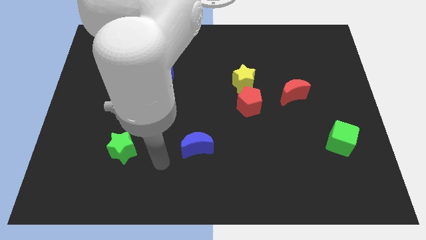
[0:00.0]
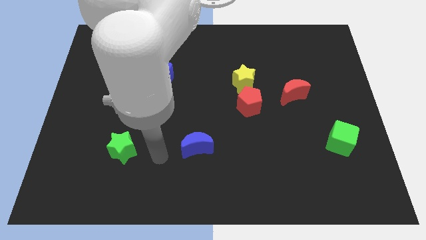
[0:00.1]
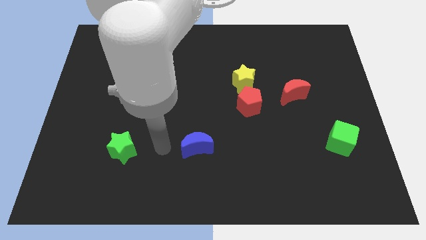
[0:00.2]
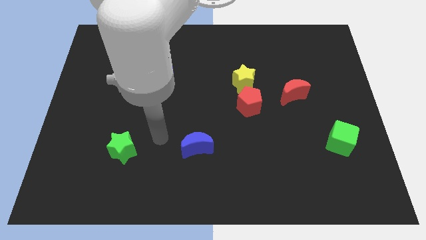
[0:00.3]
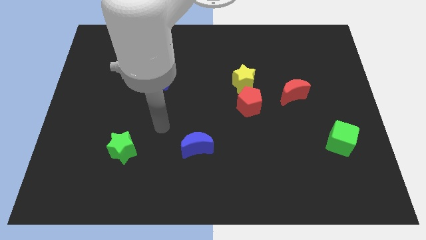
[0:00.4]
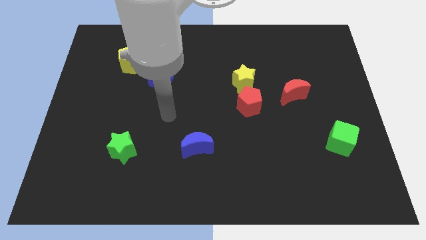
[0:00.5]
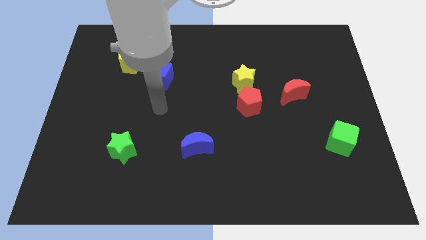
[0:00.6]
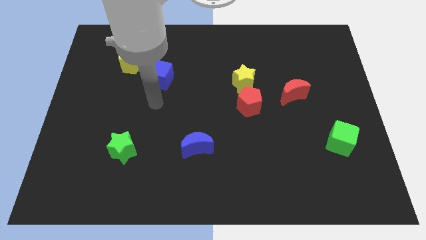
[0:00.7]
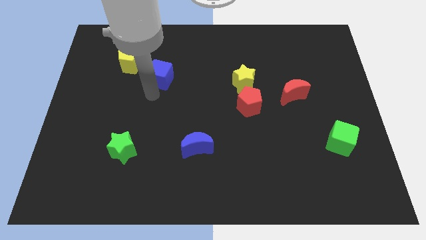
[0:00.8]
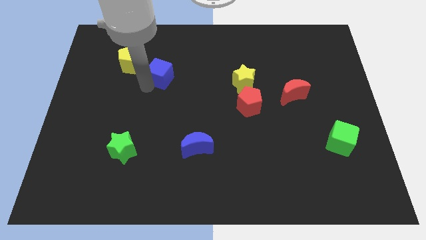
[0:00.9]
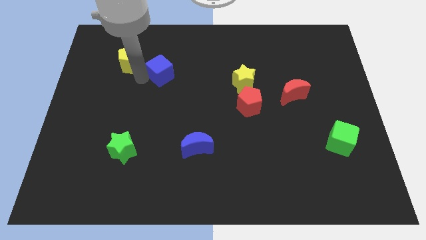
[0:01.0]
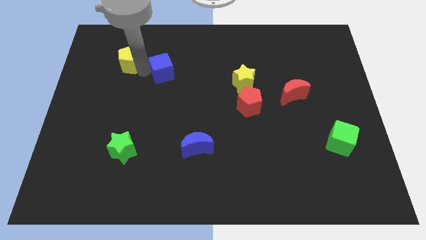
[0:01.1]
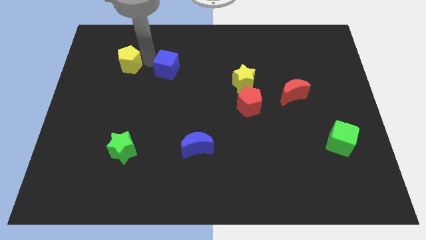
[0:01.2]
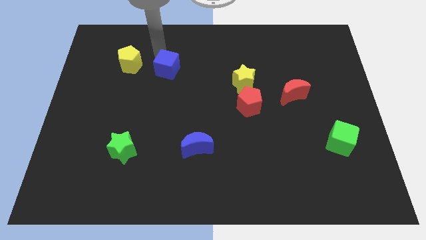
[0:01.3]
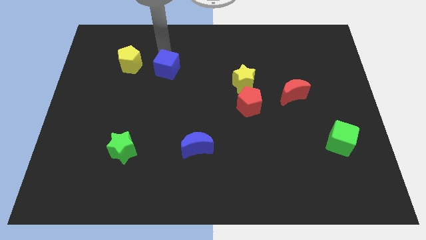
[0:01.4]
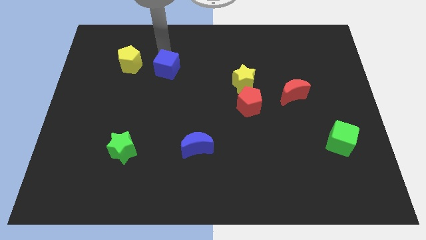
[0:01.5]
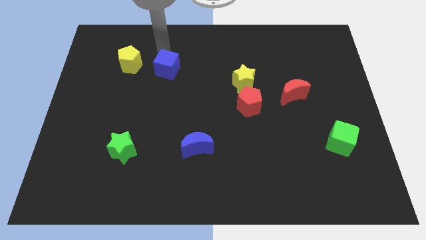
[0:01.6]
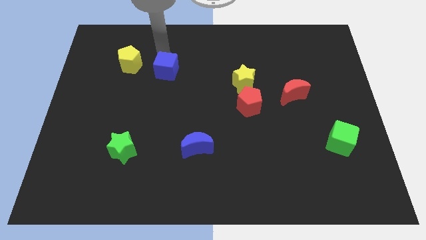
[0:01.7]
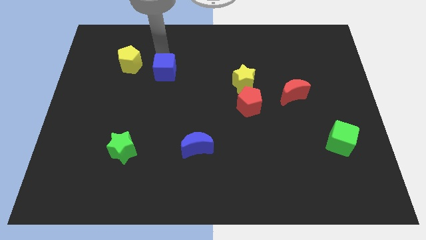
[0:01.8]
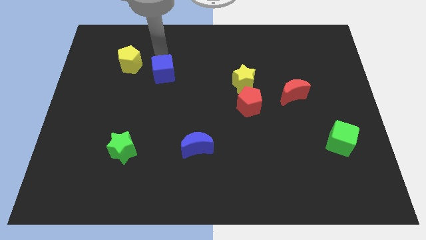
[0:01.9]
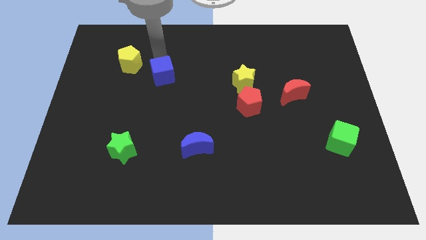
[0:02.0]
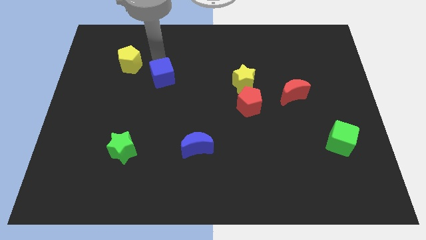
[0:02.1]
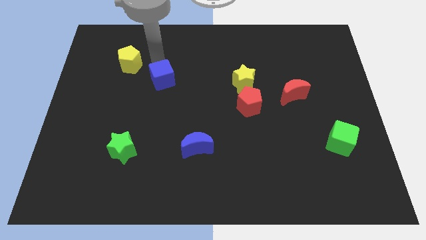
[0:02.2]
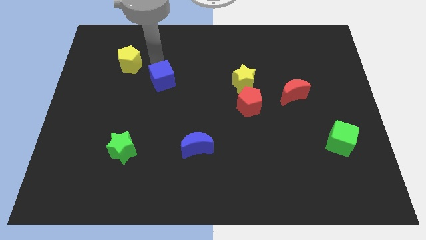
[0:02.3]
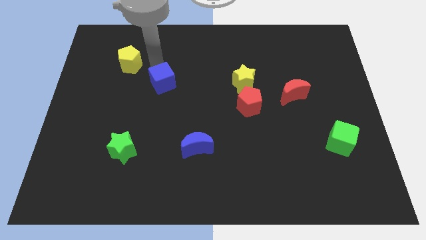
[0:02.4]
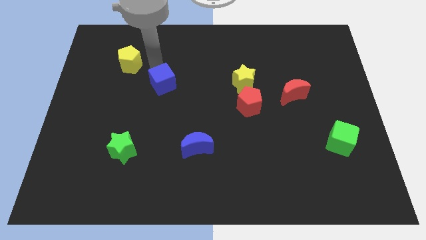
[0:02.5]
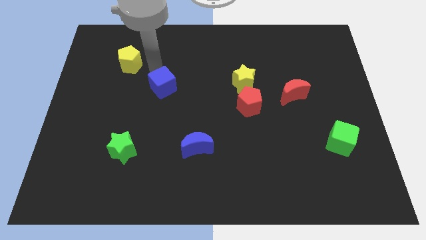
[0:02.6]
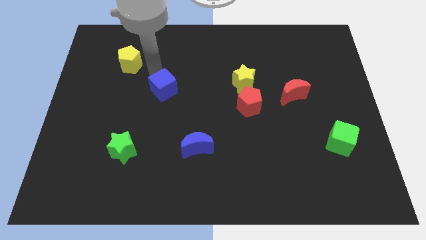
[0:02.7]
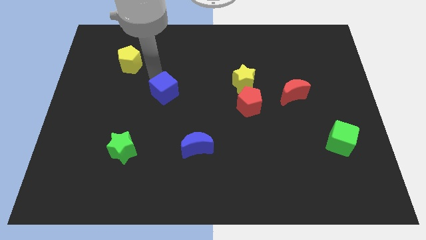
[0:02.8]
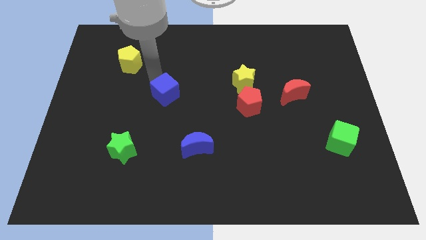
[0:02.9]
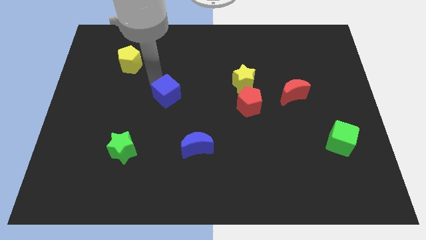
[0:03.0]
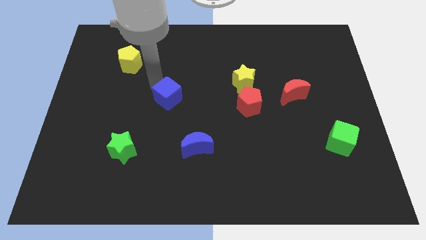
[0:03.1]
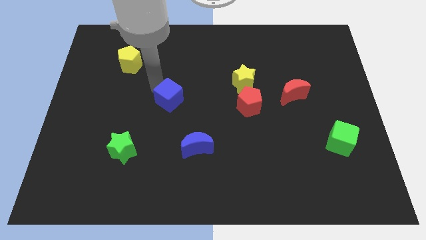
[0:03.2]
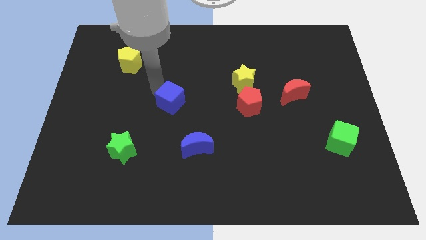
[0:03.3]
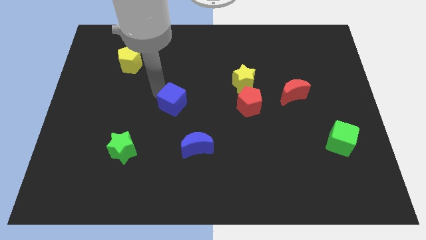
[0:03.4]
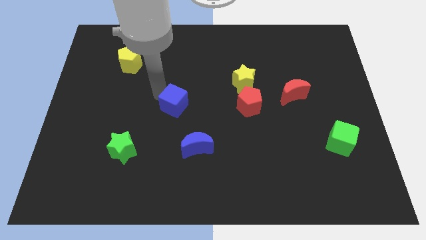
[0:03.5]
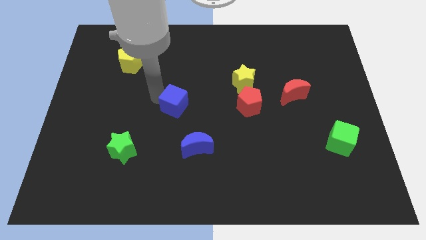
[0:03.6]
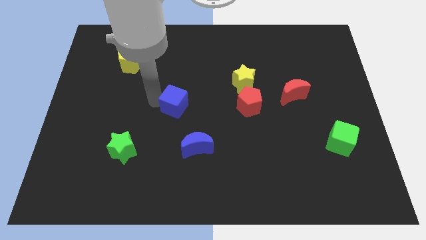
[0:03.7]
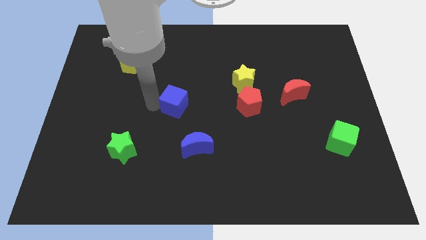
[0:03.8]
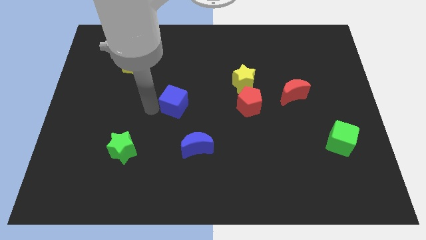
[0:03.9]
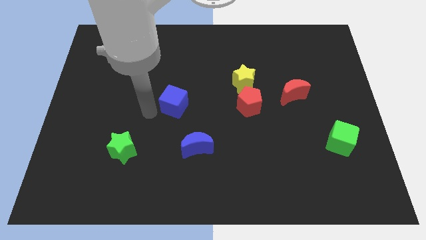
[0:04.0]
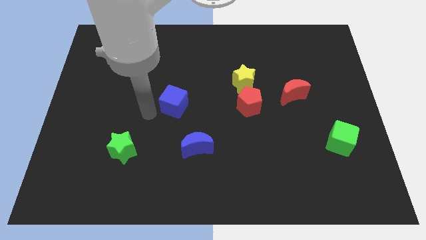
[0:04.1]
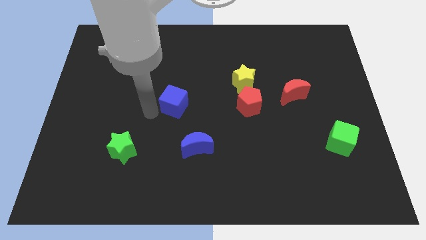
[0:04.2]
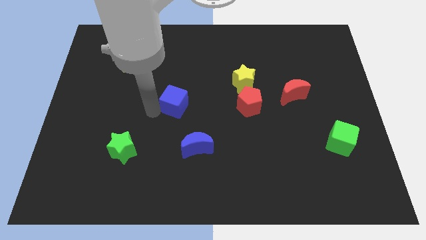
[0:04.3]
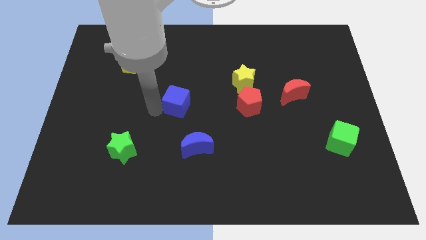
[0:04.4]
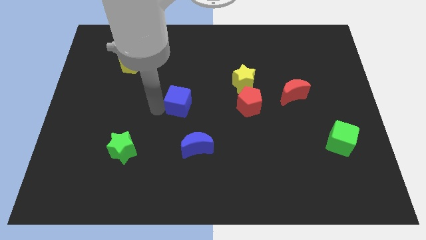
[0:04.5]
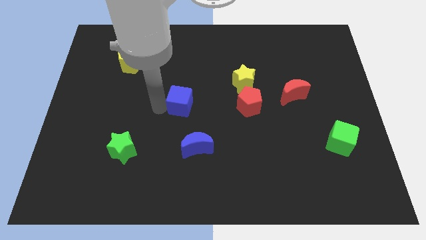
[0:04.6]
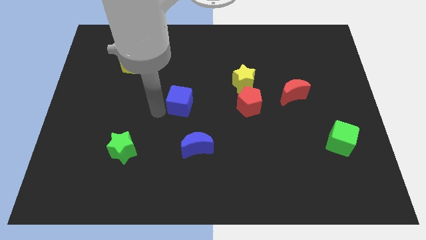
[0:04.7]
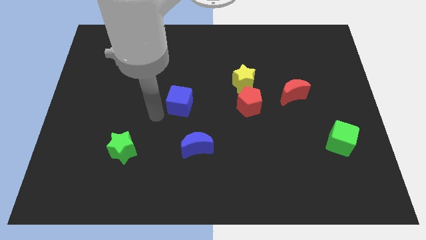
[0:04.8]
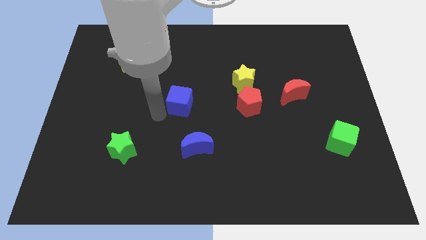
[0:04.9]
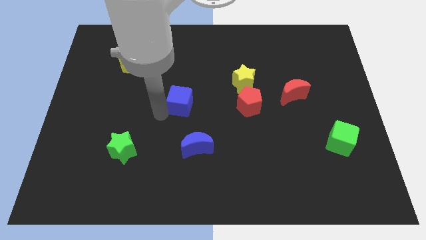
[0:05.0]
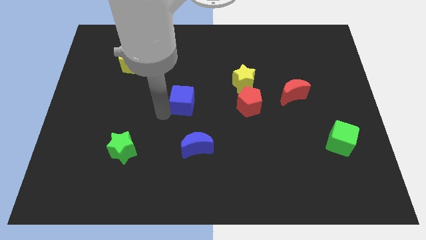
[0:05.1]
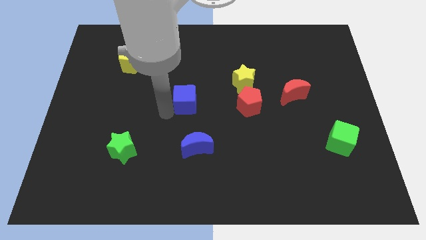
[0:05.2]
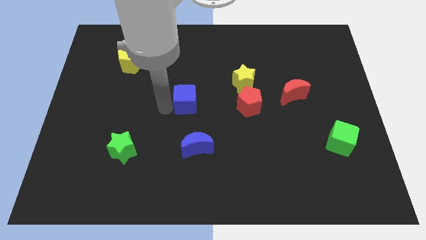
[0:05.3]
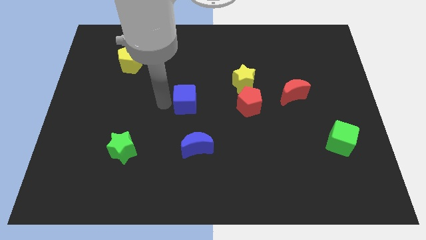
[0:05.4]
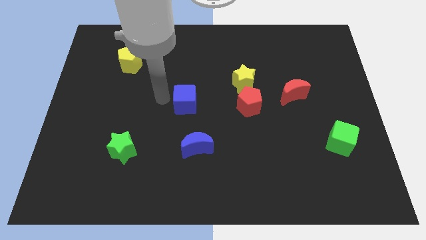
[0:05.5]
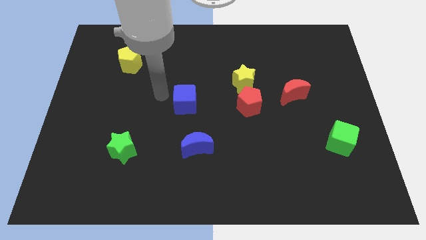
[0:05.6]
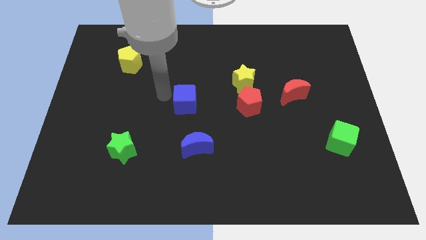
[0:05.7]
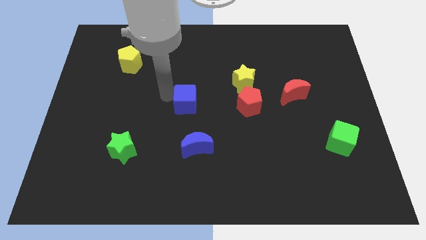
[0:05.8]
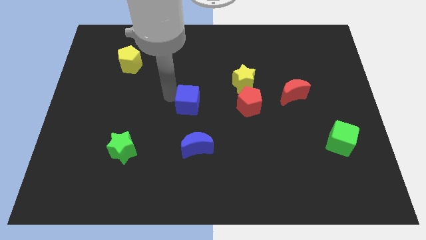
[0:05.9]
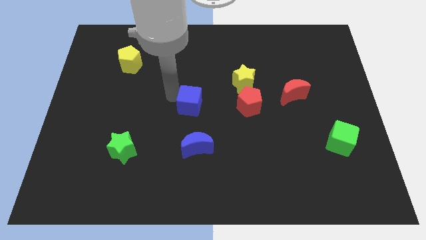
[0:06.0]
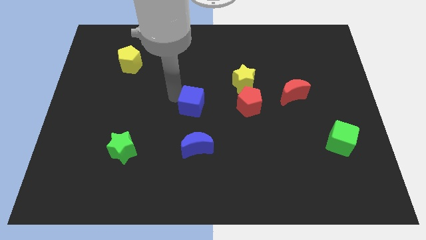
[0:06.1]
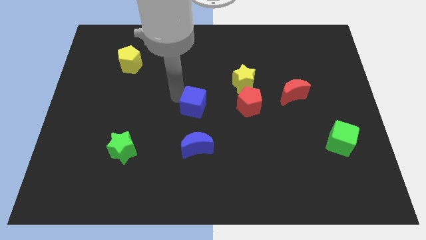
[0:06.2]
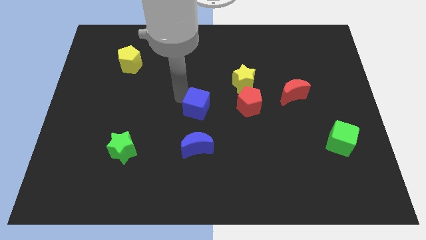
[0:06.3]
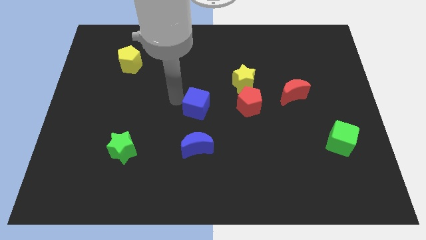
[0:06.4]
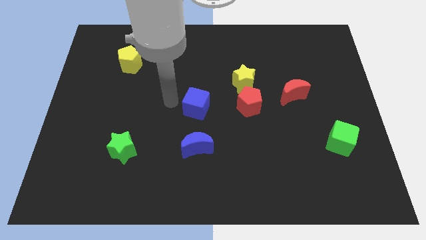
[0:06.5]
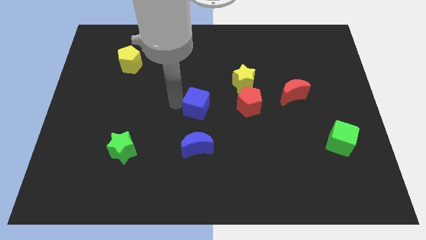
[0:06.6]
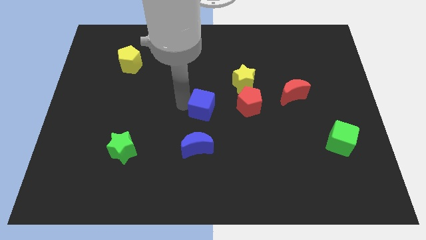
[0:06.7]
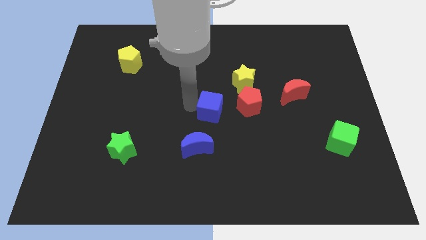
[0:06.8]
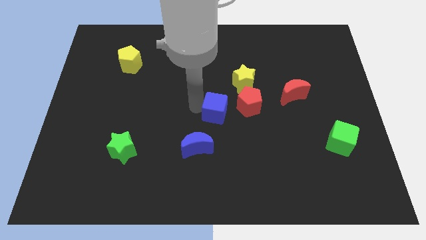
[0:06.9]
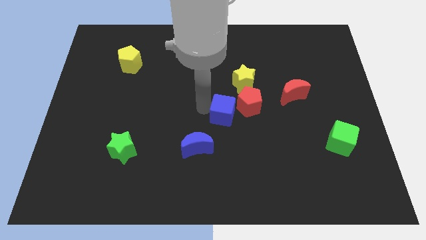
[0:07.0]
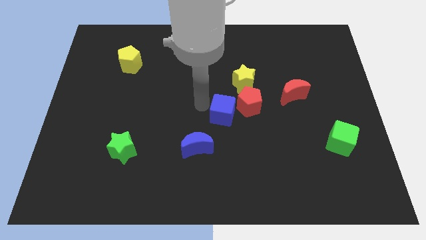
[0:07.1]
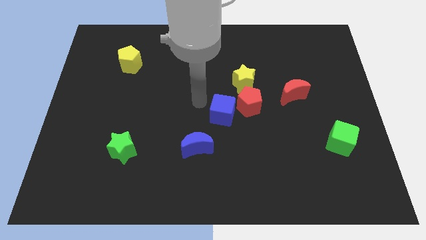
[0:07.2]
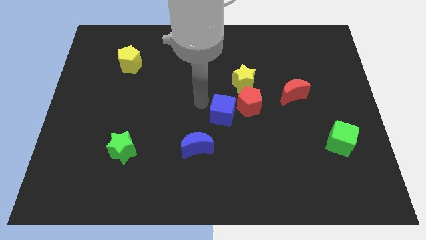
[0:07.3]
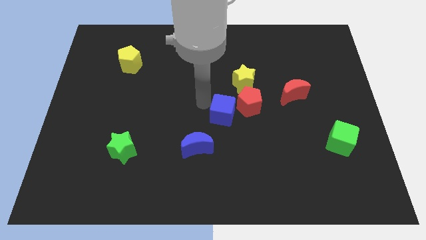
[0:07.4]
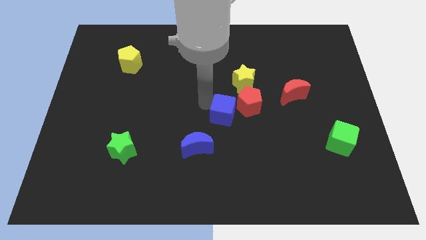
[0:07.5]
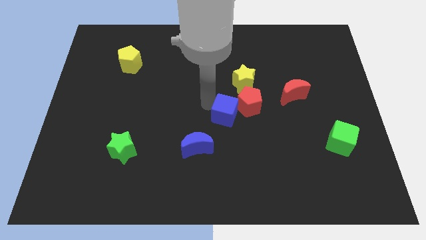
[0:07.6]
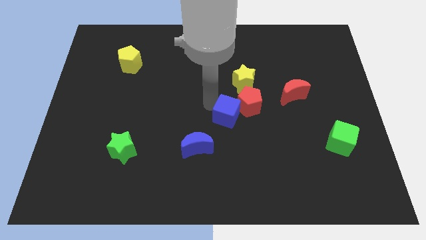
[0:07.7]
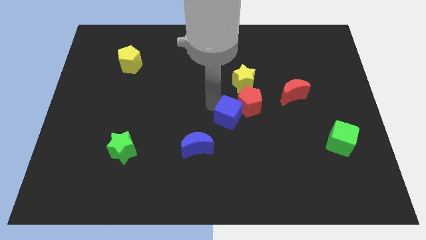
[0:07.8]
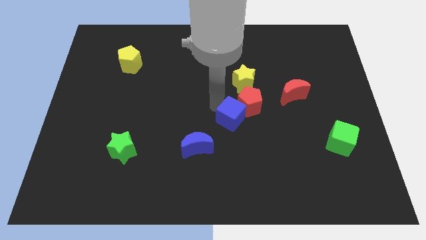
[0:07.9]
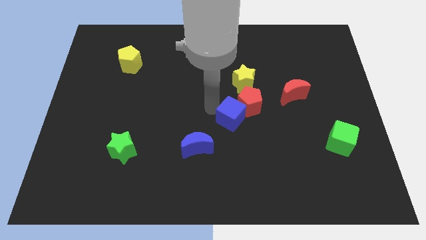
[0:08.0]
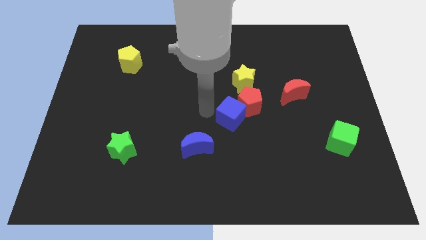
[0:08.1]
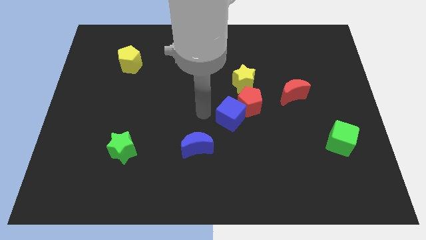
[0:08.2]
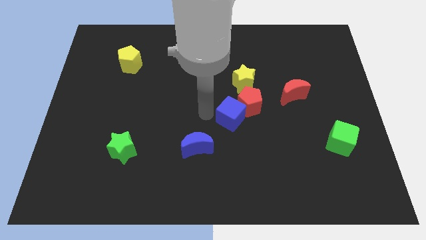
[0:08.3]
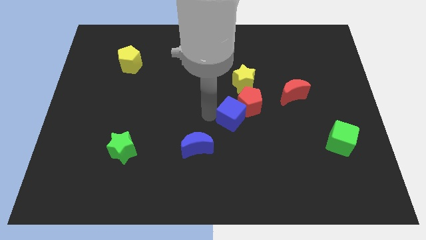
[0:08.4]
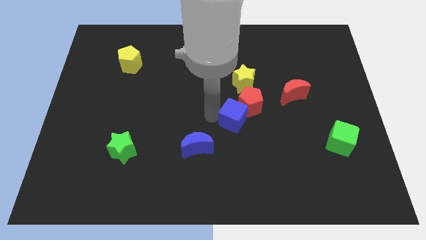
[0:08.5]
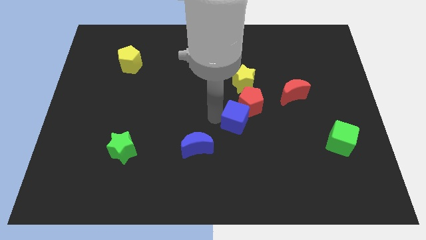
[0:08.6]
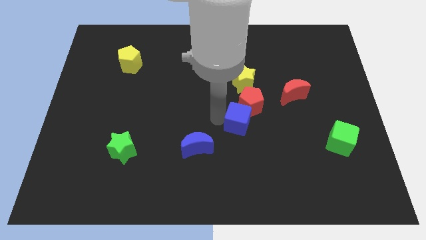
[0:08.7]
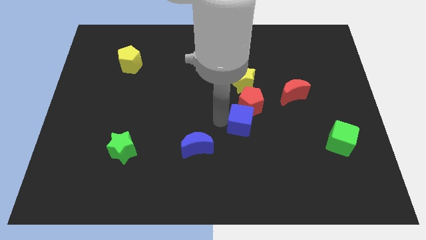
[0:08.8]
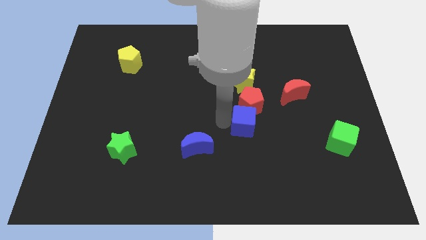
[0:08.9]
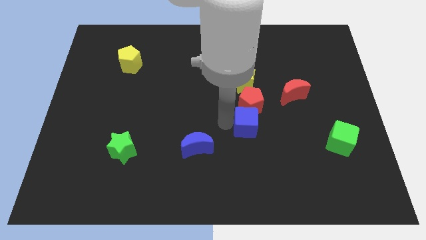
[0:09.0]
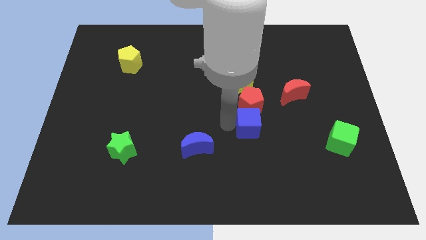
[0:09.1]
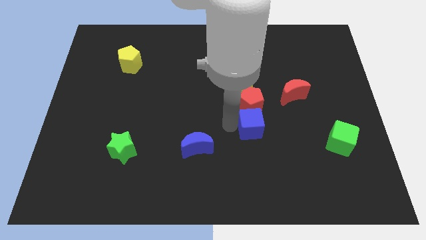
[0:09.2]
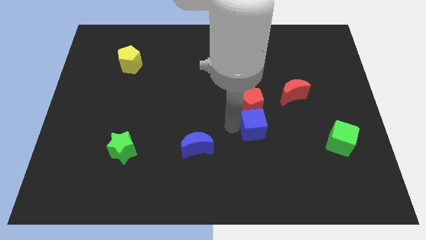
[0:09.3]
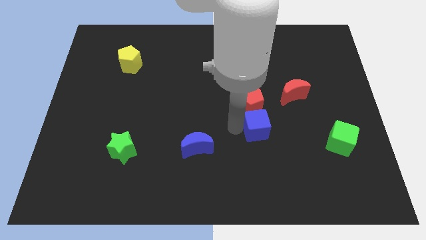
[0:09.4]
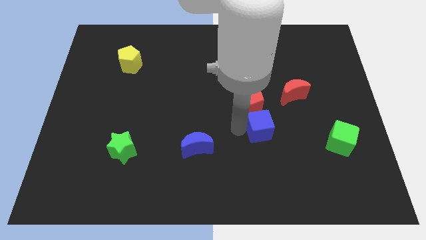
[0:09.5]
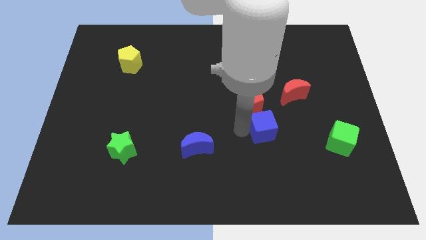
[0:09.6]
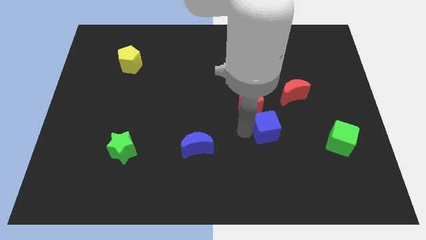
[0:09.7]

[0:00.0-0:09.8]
push the blue cube diagonally down and to the left of the red moon
